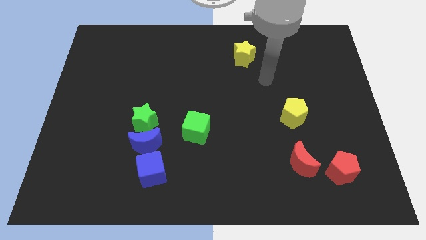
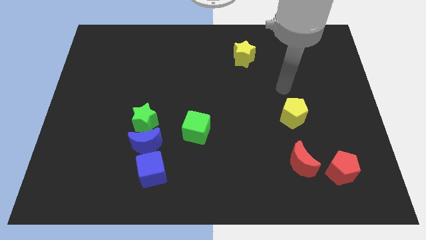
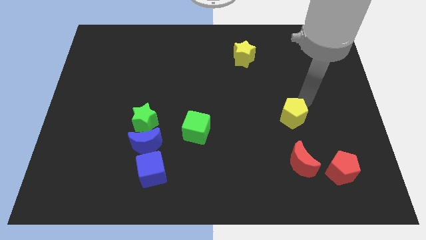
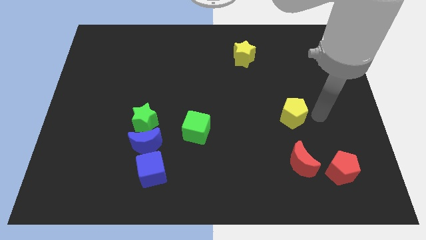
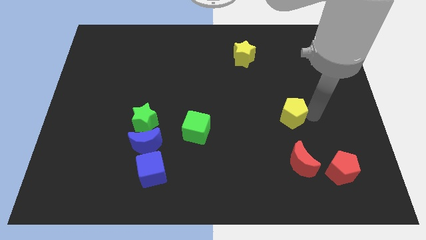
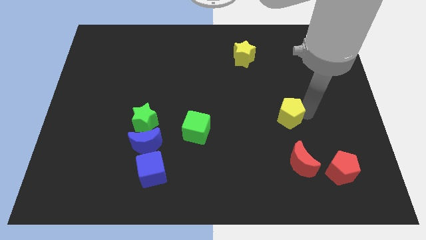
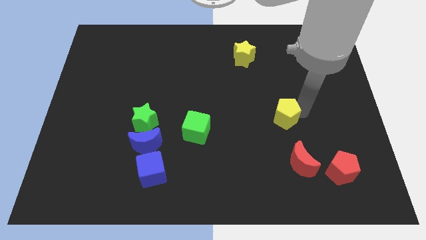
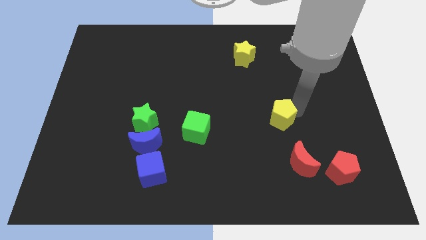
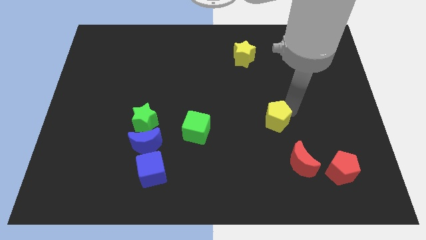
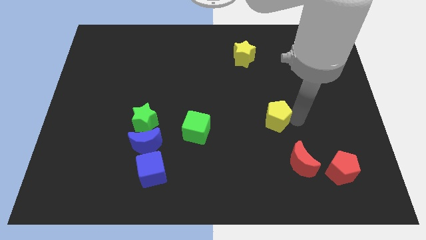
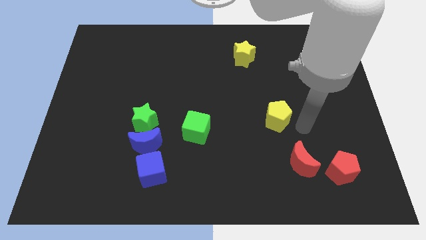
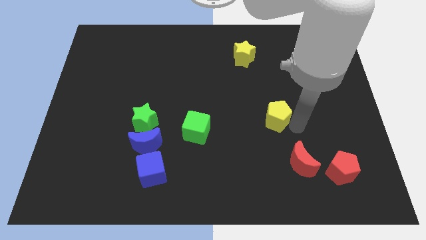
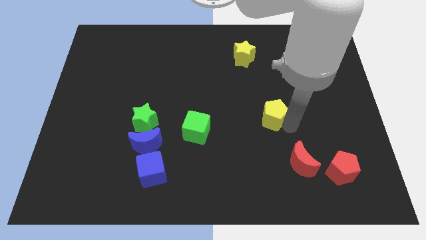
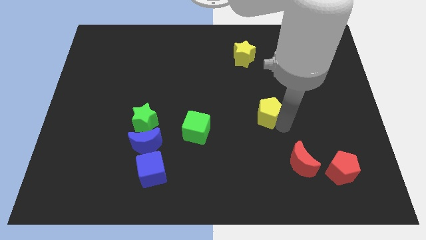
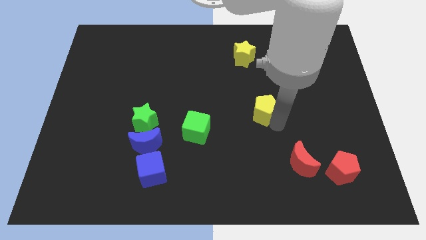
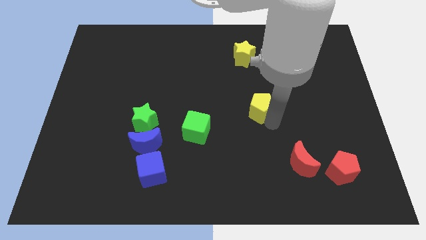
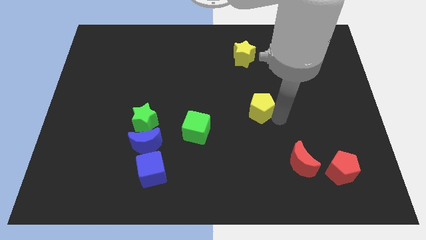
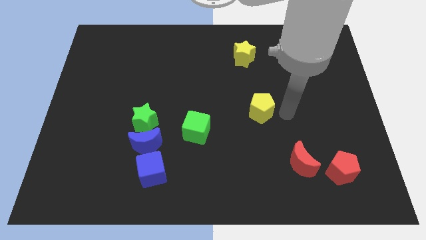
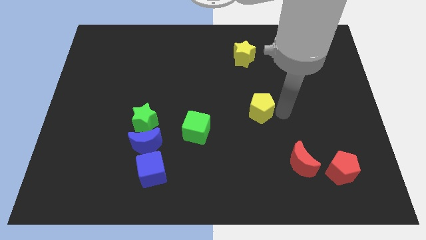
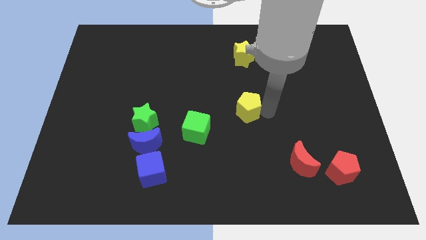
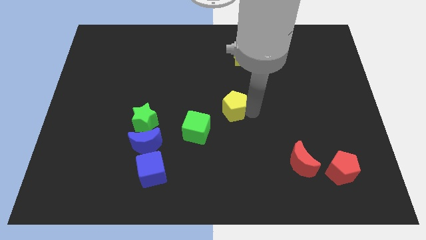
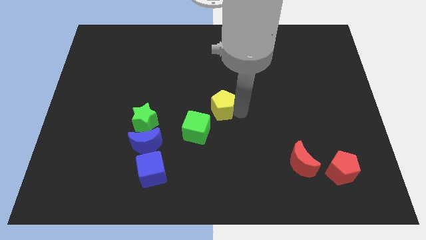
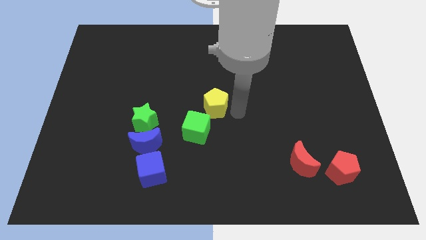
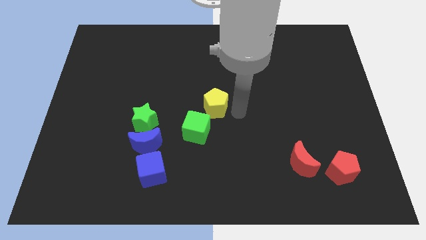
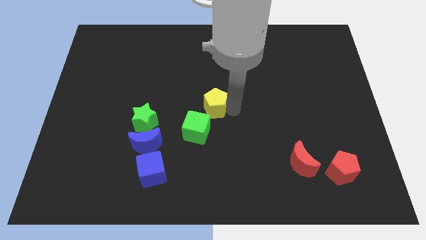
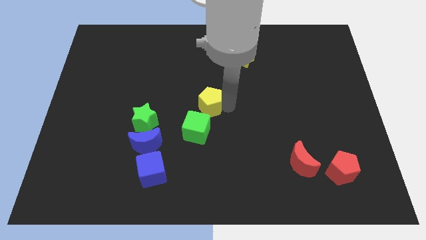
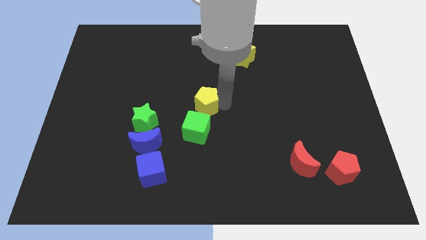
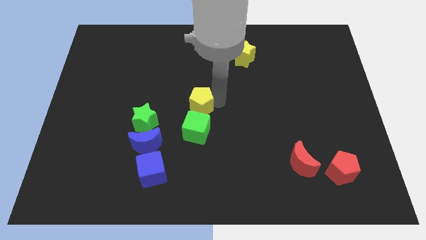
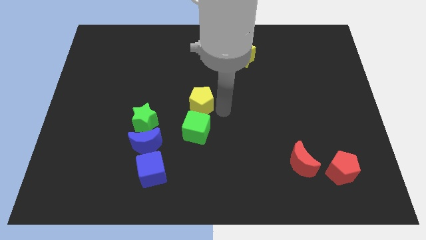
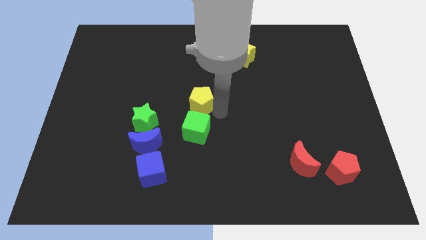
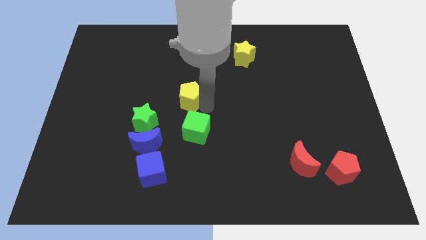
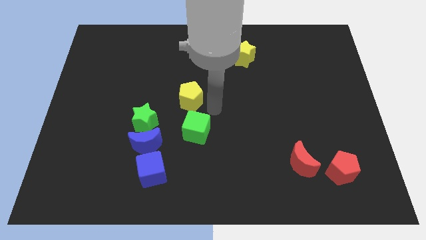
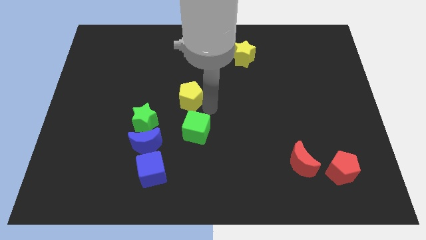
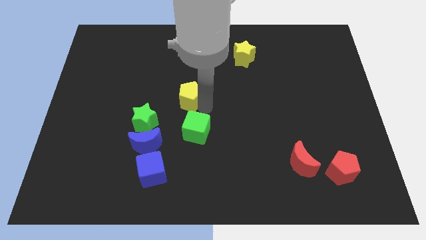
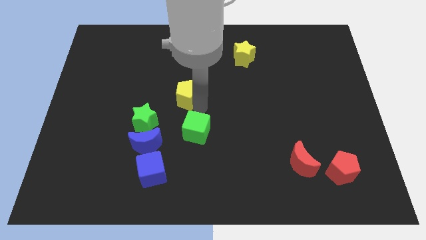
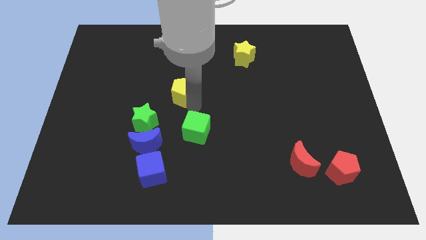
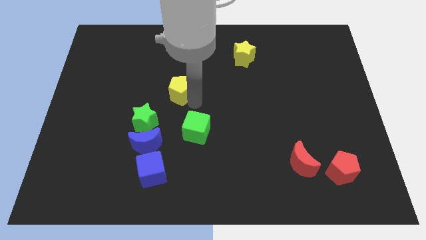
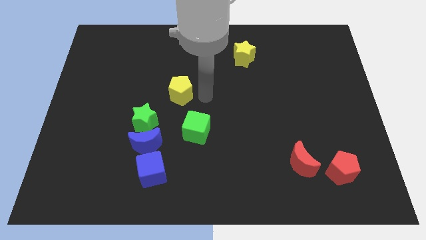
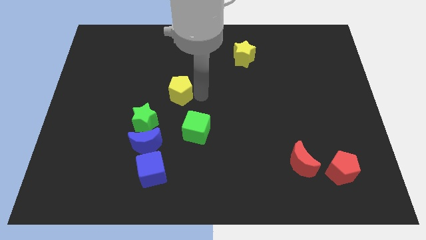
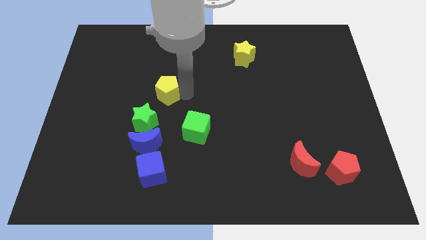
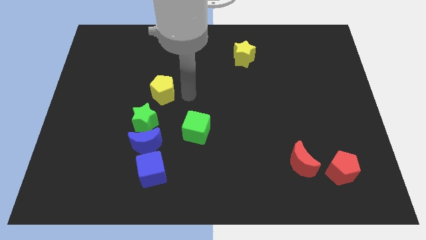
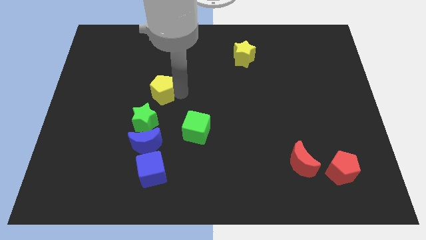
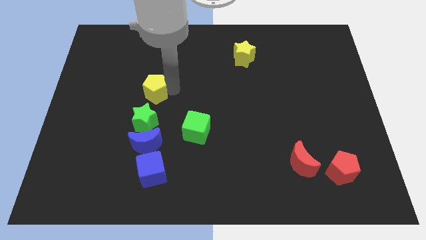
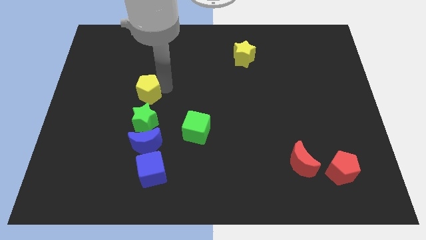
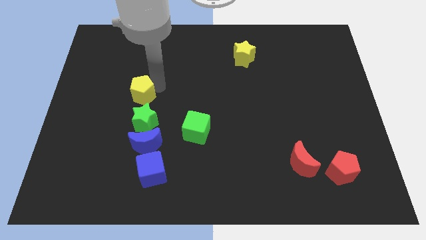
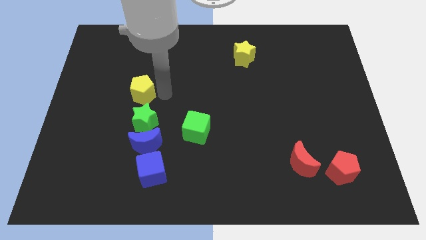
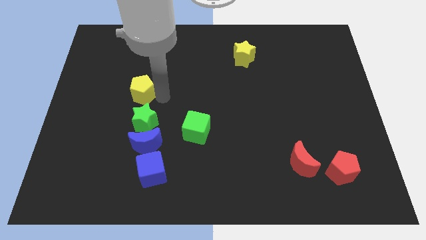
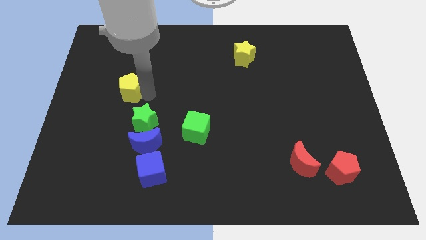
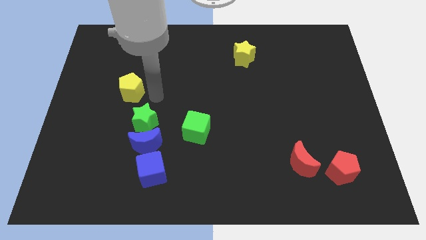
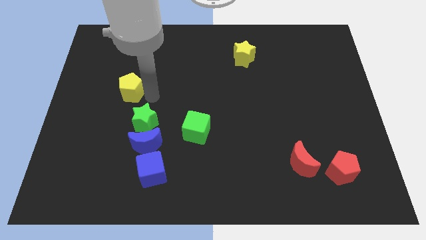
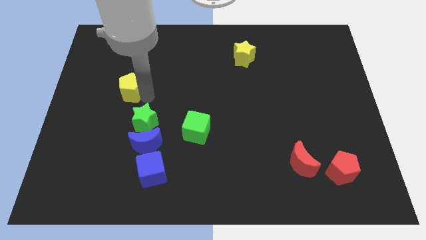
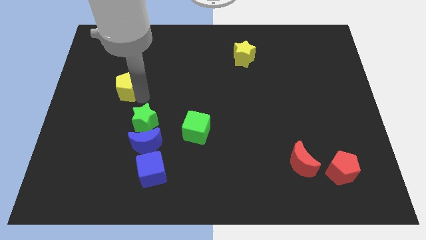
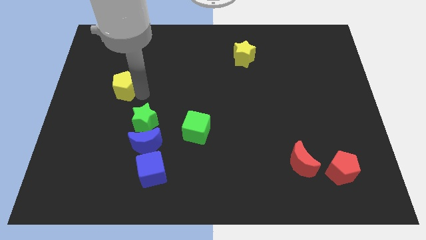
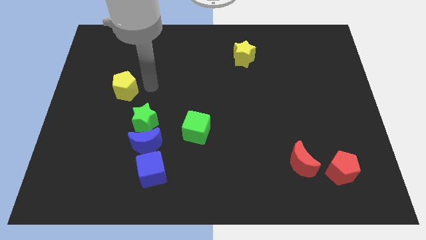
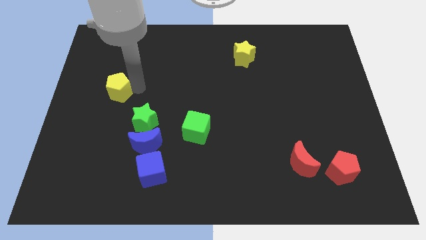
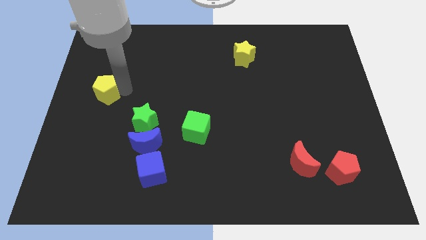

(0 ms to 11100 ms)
slide the yellow pentagon to the left side of the board
